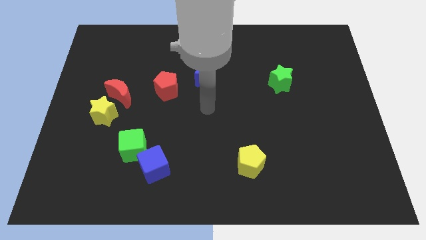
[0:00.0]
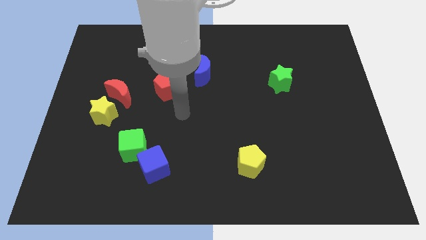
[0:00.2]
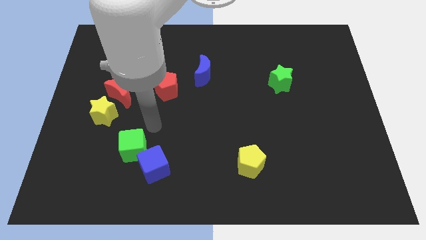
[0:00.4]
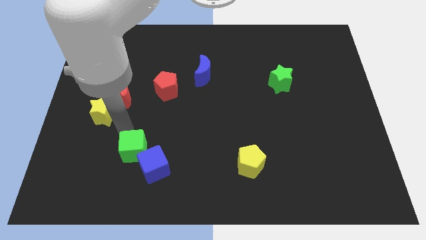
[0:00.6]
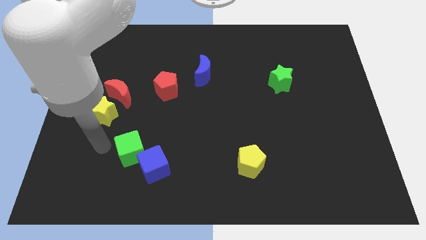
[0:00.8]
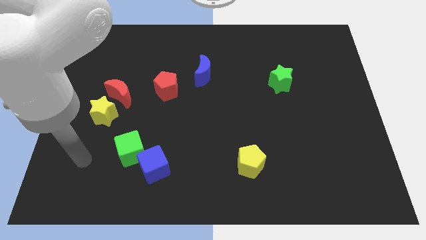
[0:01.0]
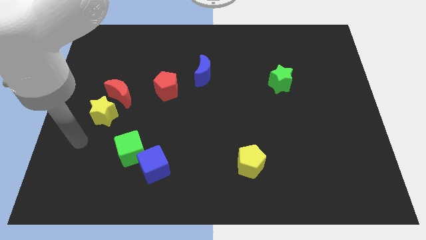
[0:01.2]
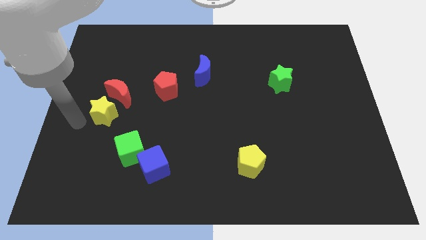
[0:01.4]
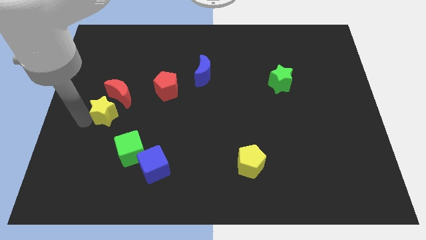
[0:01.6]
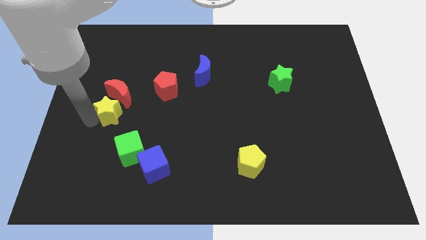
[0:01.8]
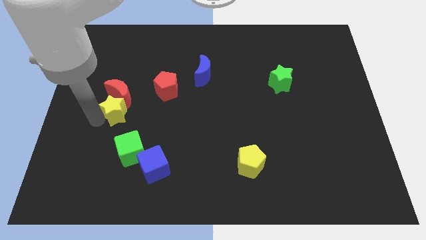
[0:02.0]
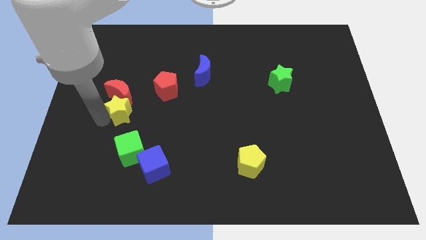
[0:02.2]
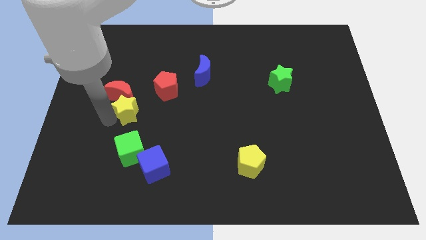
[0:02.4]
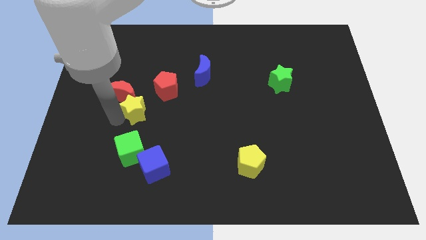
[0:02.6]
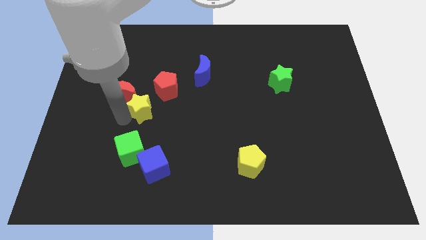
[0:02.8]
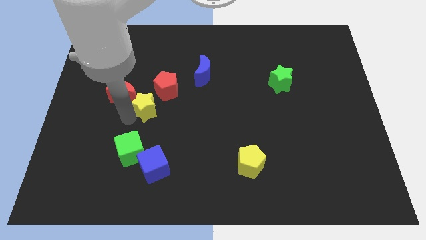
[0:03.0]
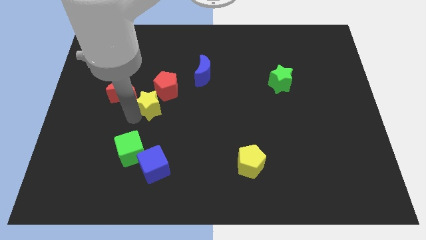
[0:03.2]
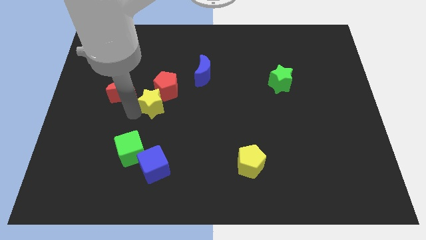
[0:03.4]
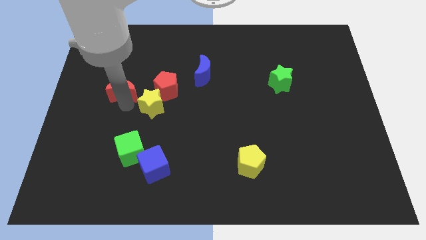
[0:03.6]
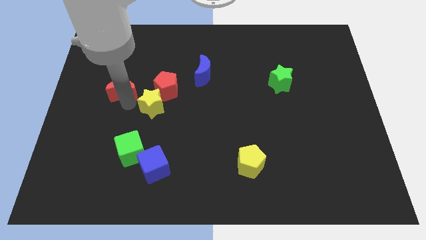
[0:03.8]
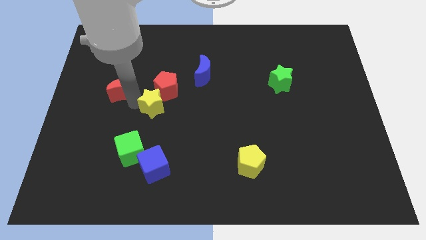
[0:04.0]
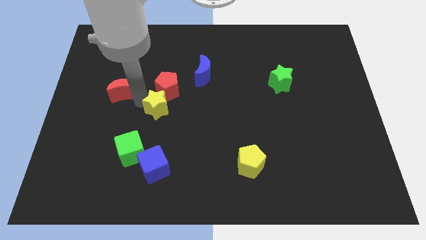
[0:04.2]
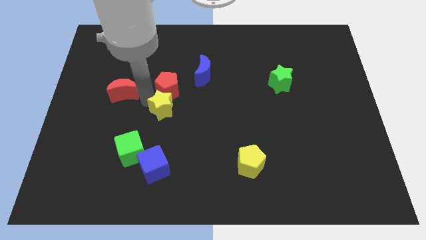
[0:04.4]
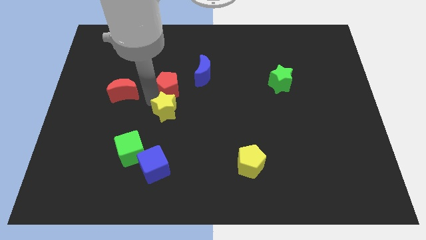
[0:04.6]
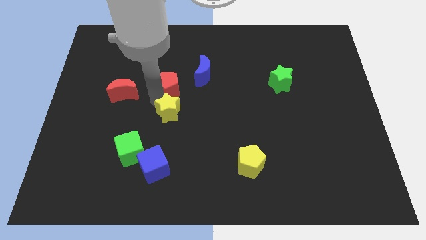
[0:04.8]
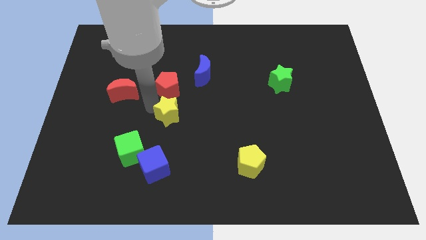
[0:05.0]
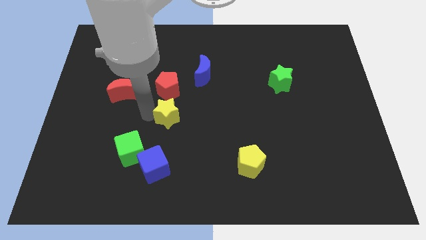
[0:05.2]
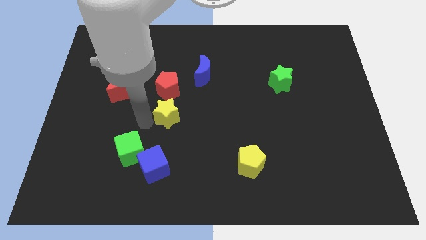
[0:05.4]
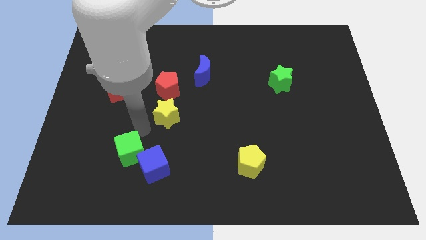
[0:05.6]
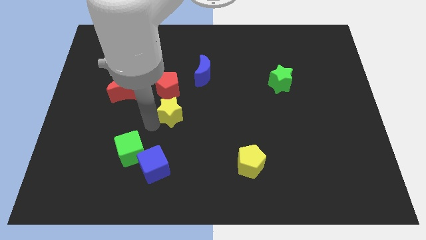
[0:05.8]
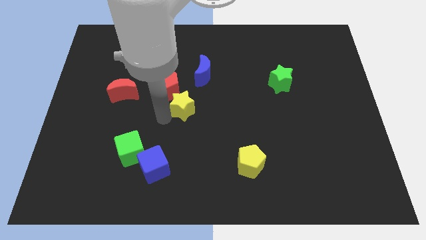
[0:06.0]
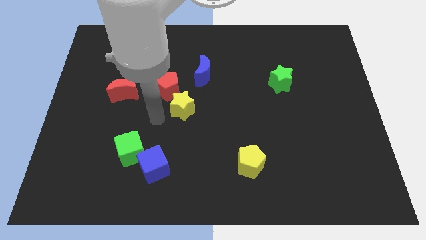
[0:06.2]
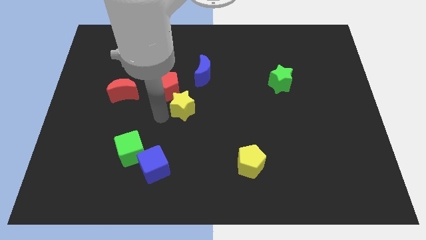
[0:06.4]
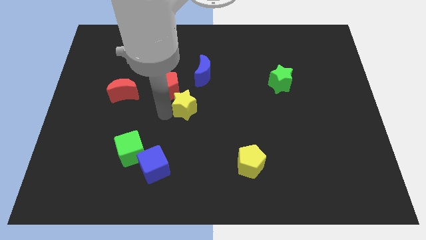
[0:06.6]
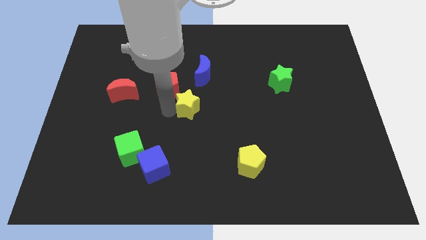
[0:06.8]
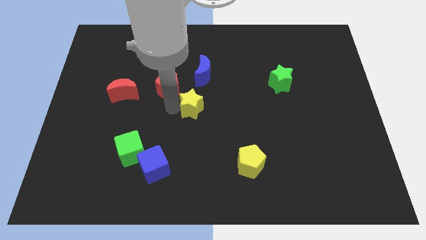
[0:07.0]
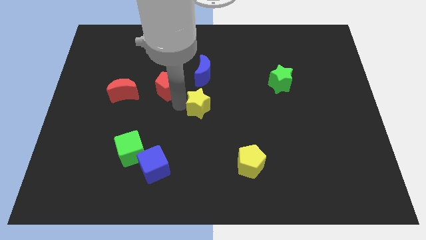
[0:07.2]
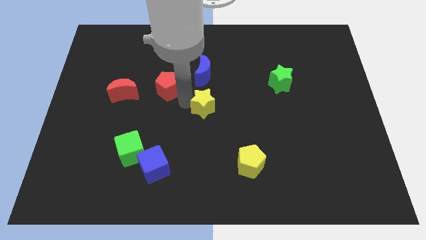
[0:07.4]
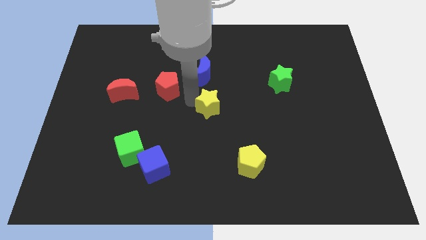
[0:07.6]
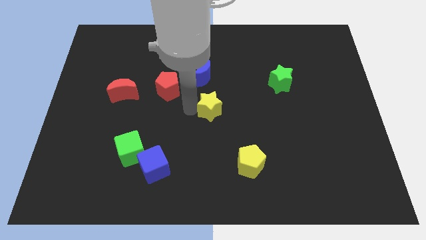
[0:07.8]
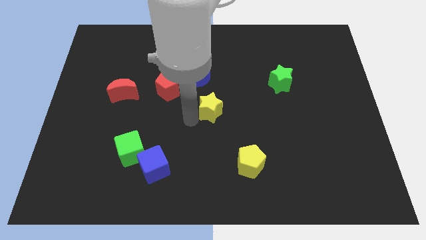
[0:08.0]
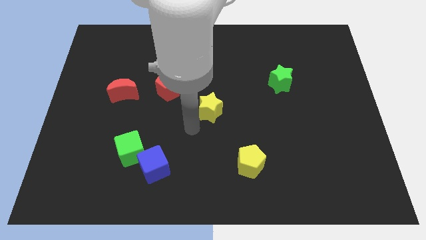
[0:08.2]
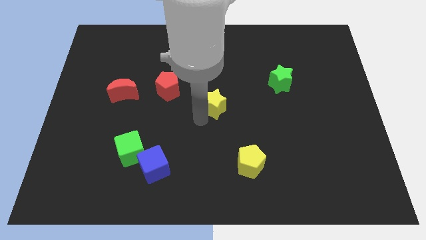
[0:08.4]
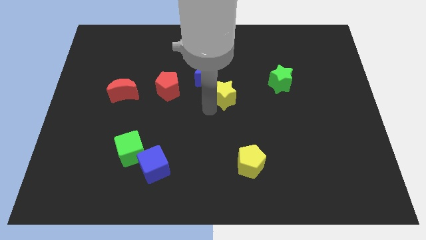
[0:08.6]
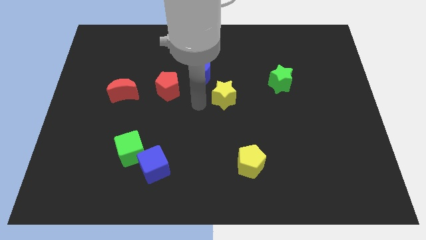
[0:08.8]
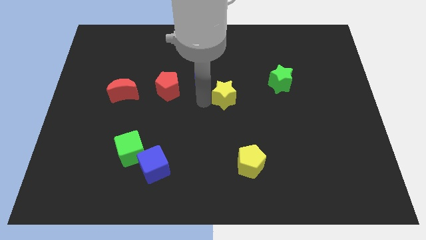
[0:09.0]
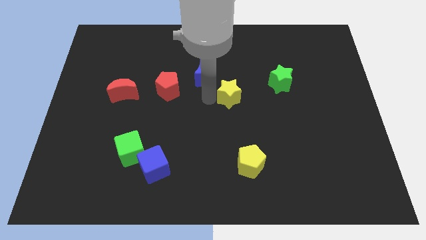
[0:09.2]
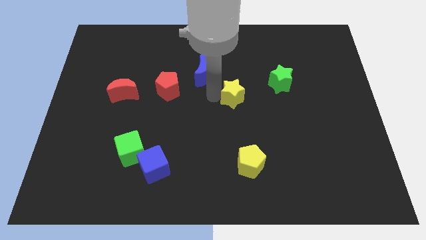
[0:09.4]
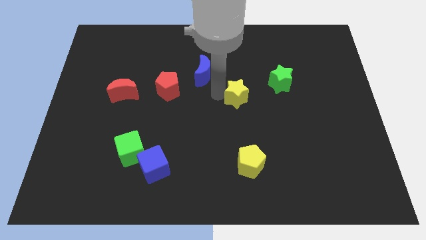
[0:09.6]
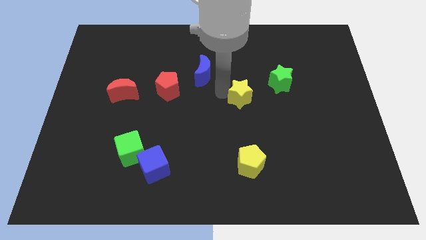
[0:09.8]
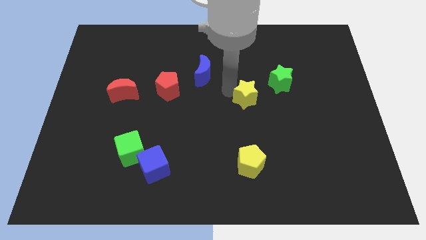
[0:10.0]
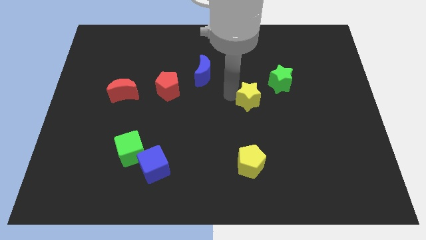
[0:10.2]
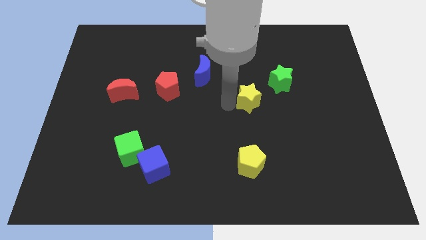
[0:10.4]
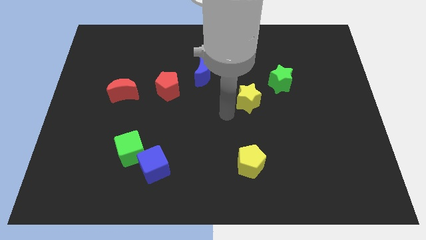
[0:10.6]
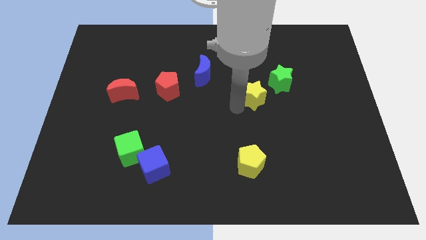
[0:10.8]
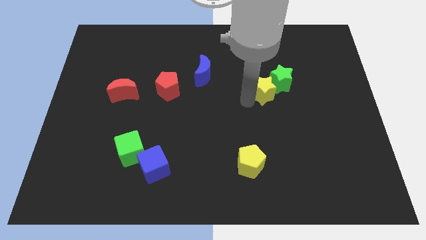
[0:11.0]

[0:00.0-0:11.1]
push the yellow star next to the green star

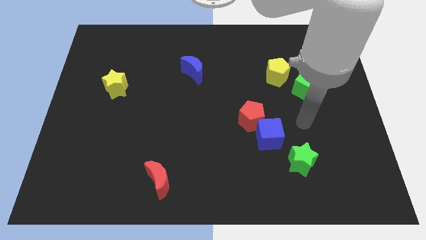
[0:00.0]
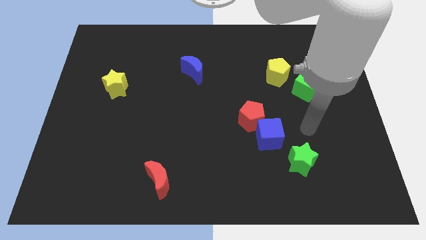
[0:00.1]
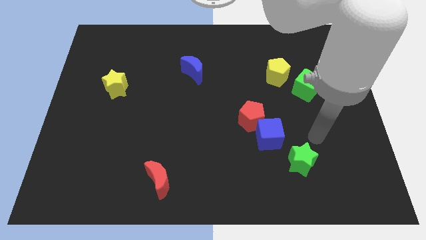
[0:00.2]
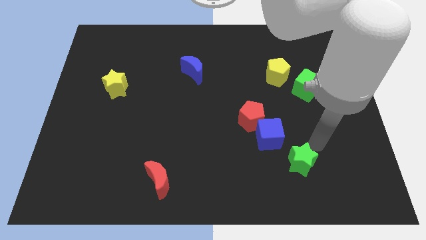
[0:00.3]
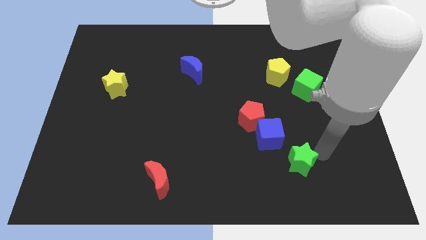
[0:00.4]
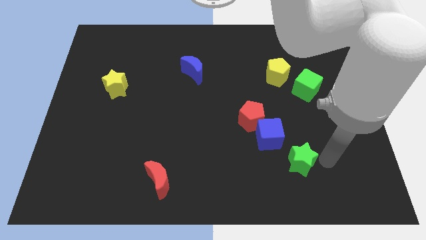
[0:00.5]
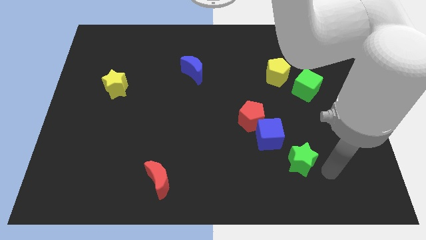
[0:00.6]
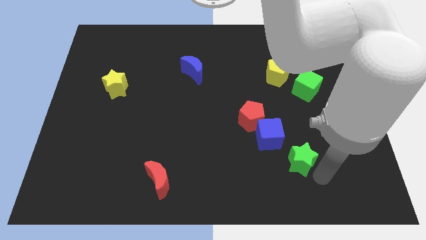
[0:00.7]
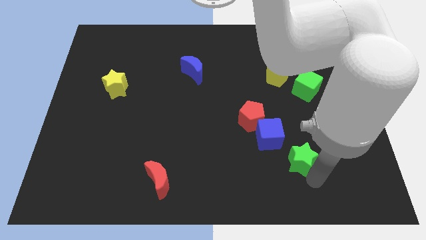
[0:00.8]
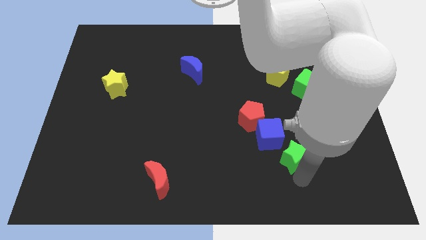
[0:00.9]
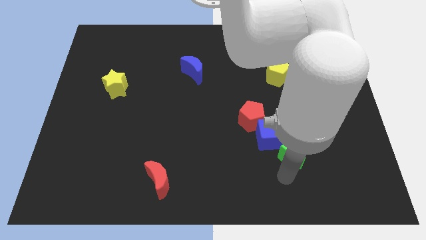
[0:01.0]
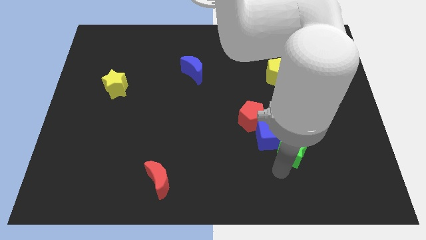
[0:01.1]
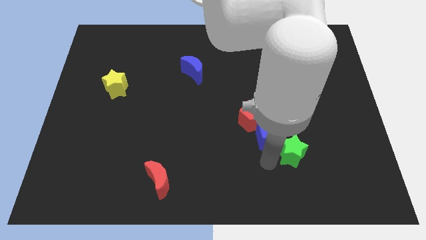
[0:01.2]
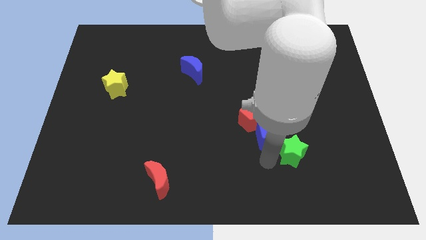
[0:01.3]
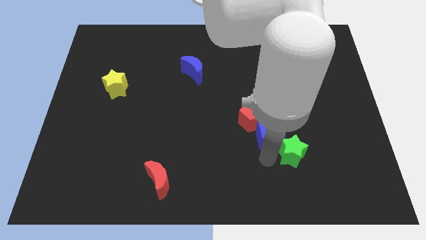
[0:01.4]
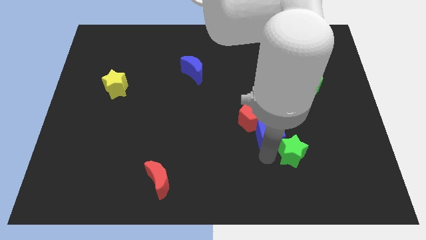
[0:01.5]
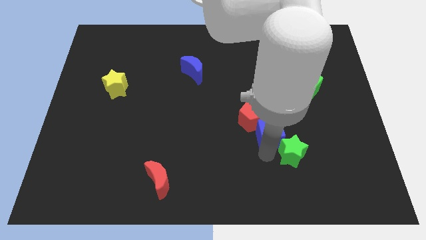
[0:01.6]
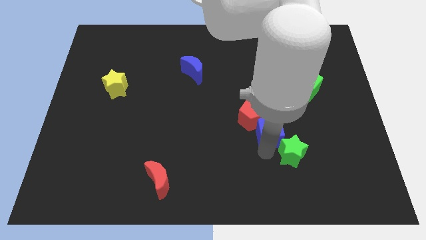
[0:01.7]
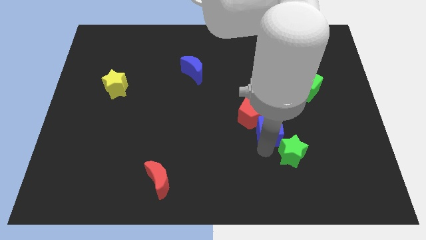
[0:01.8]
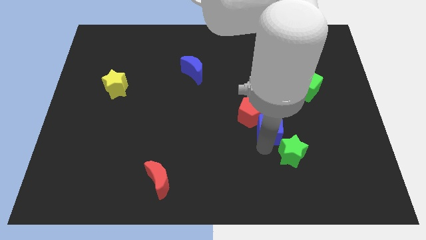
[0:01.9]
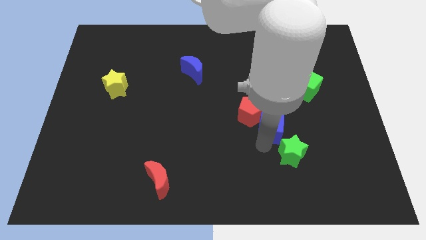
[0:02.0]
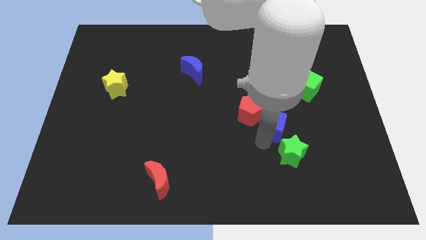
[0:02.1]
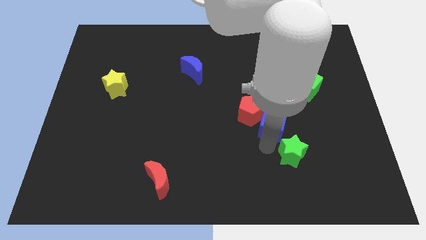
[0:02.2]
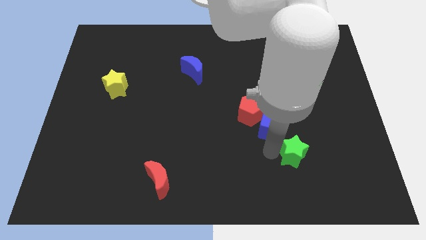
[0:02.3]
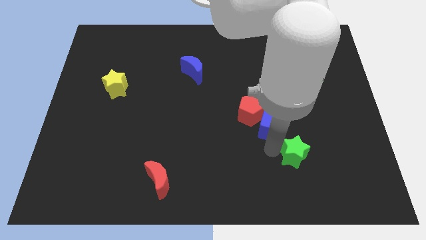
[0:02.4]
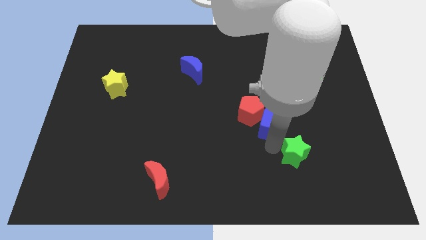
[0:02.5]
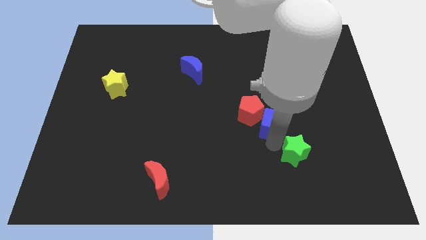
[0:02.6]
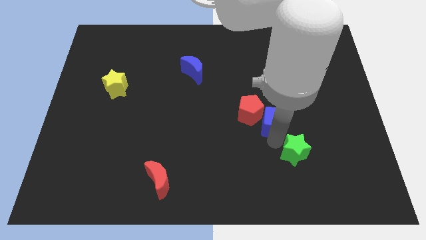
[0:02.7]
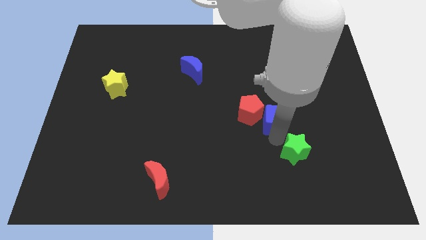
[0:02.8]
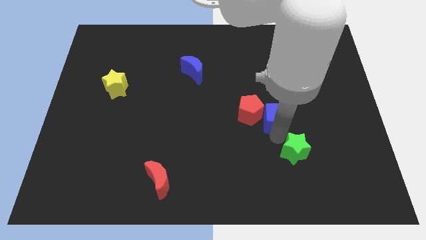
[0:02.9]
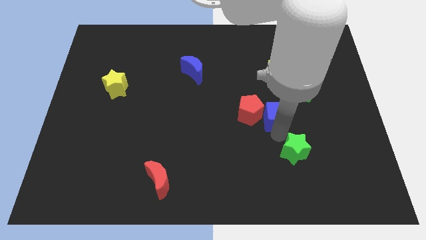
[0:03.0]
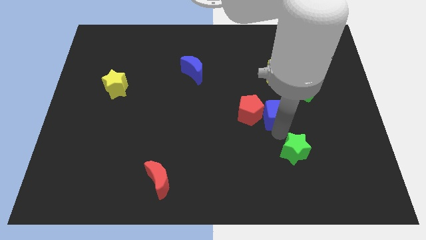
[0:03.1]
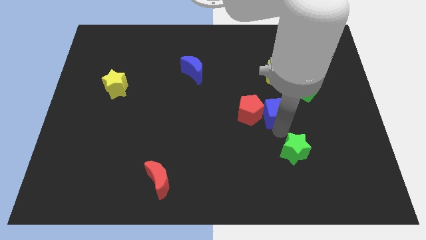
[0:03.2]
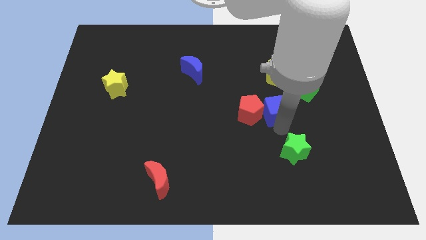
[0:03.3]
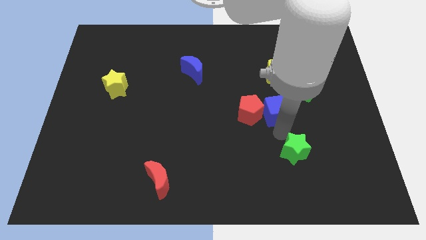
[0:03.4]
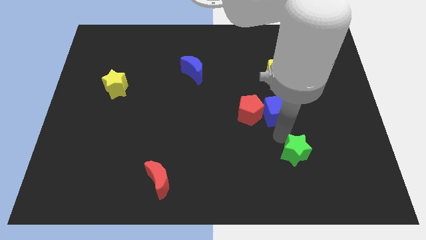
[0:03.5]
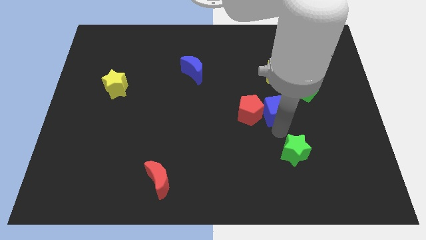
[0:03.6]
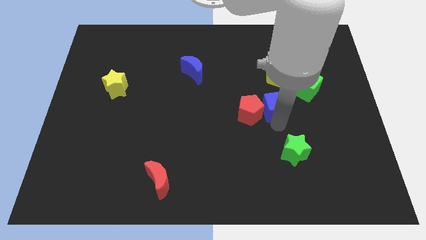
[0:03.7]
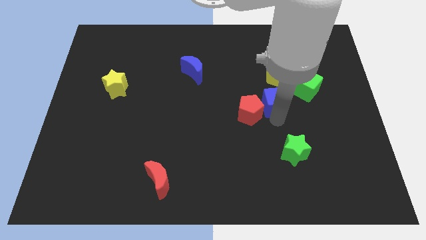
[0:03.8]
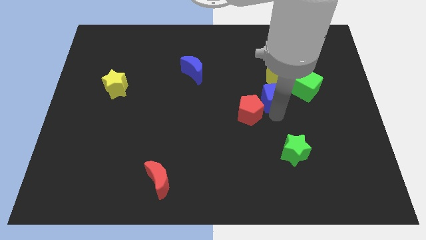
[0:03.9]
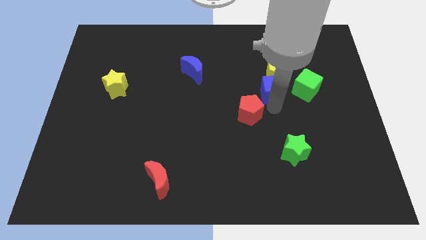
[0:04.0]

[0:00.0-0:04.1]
move the blue cube close to the yellow pentagon
